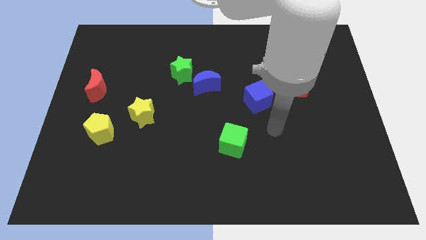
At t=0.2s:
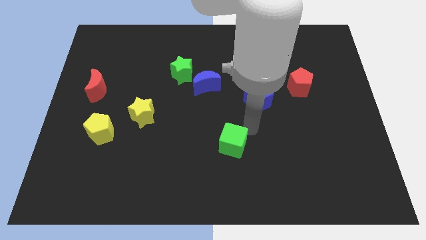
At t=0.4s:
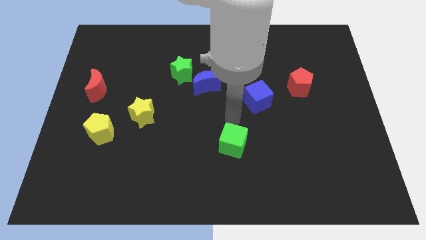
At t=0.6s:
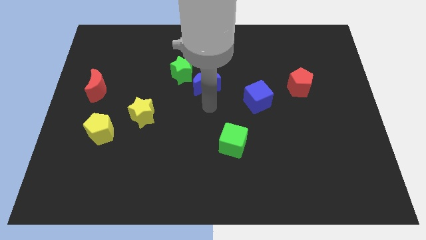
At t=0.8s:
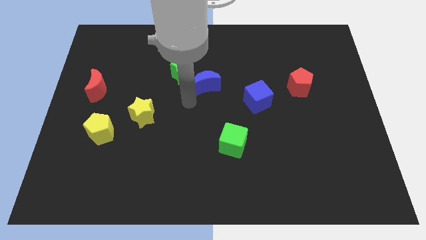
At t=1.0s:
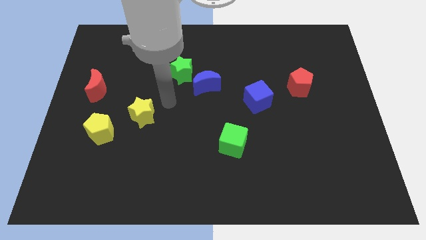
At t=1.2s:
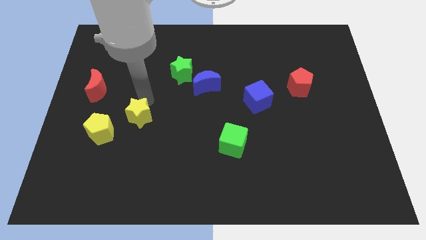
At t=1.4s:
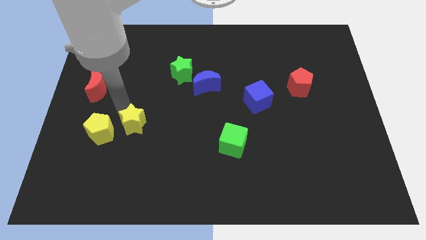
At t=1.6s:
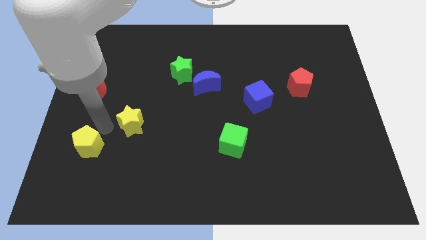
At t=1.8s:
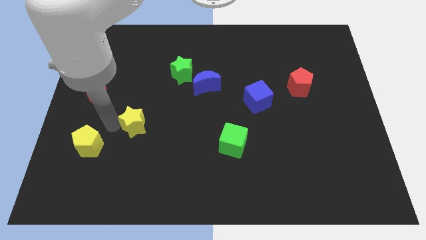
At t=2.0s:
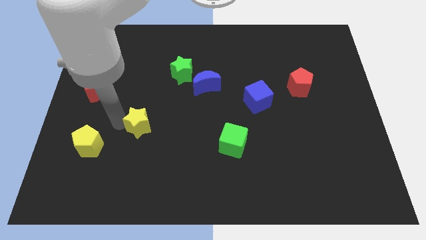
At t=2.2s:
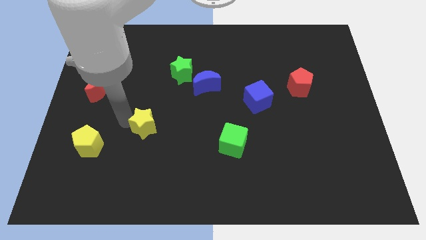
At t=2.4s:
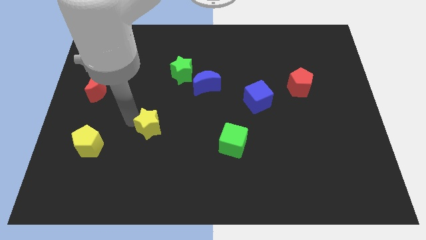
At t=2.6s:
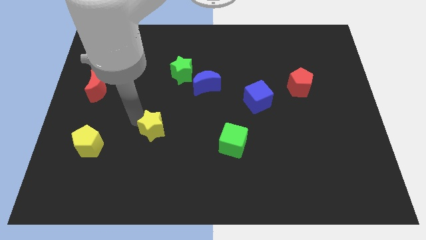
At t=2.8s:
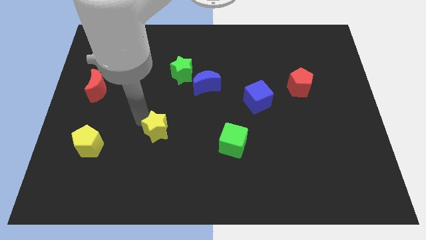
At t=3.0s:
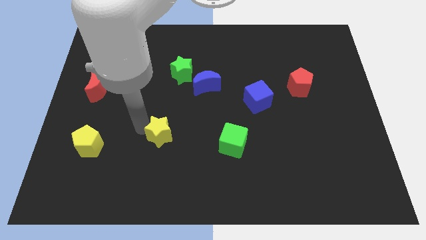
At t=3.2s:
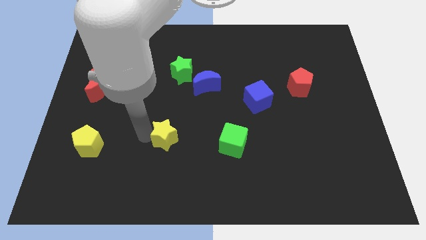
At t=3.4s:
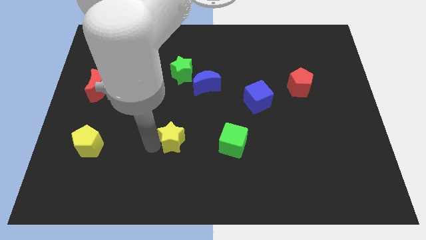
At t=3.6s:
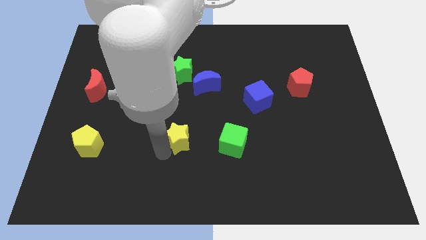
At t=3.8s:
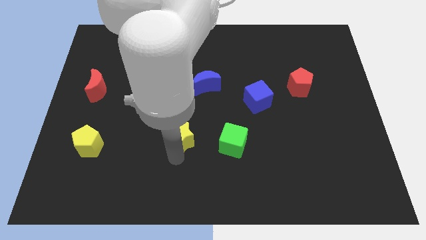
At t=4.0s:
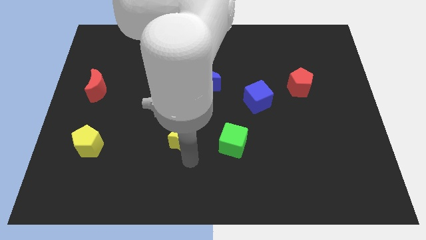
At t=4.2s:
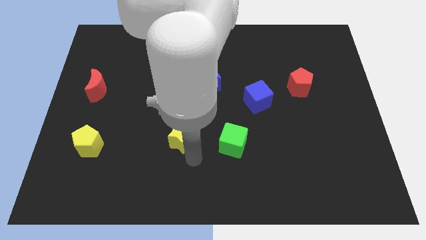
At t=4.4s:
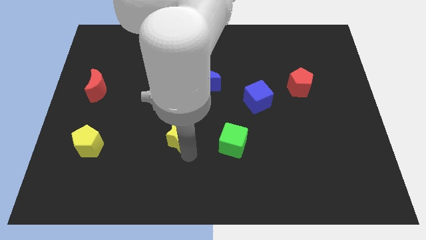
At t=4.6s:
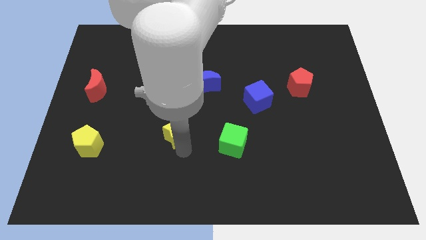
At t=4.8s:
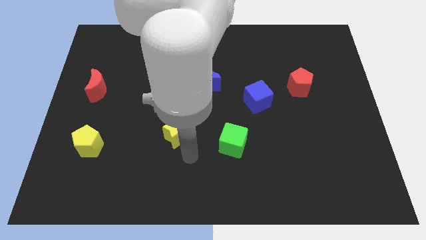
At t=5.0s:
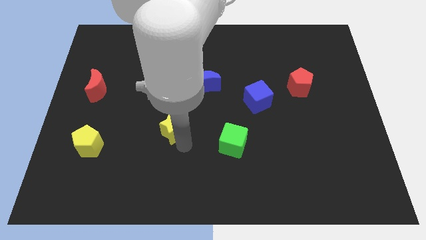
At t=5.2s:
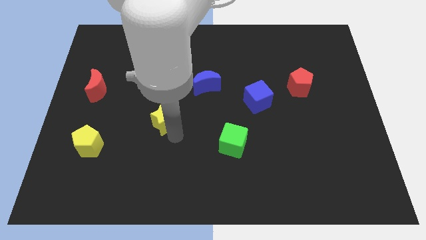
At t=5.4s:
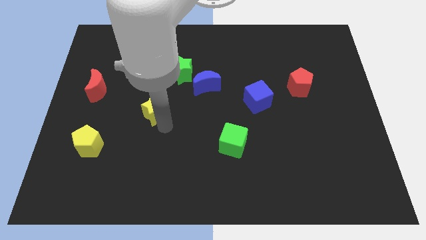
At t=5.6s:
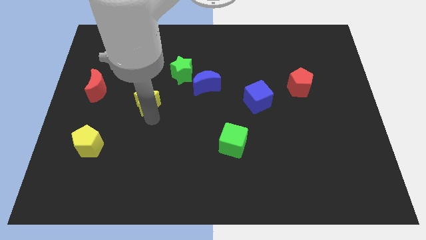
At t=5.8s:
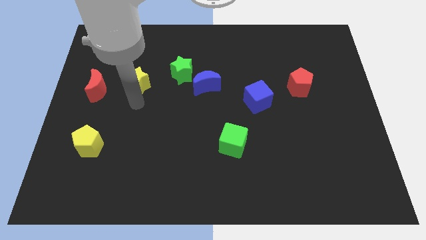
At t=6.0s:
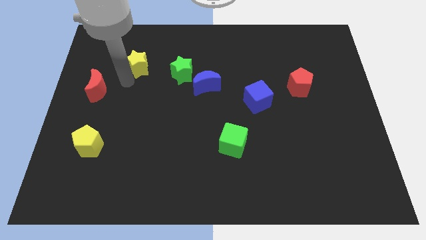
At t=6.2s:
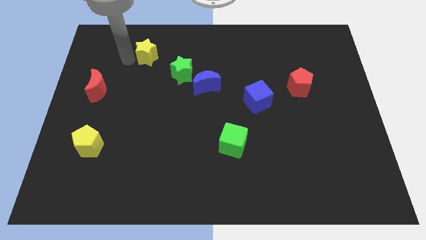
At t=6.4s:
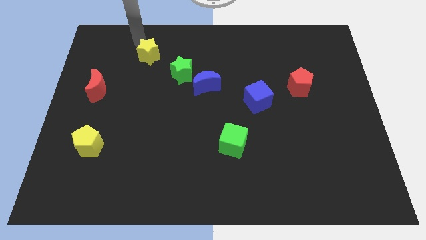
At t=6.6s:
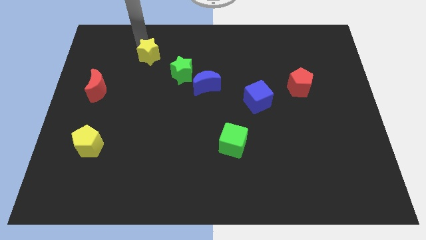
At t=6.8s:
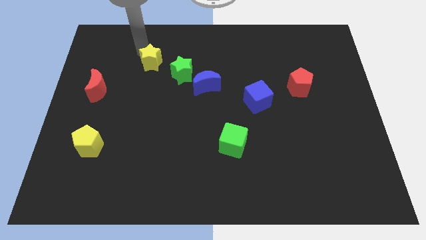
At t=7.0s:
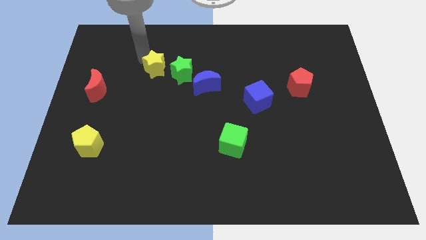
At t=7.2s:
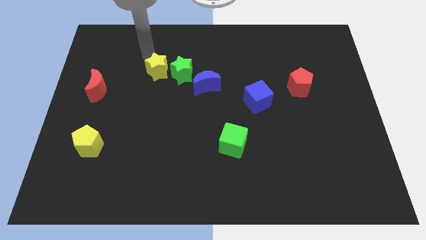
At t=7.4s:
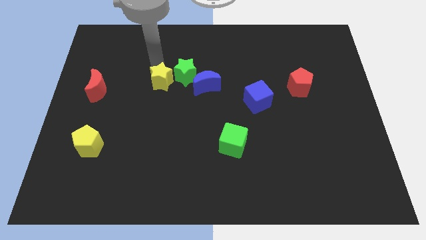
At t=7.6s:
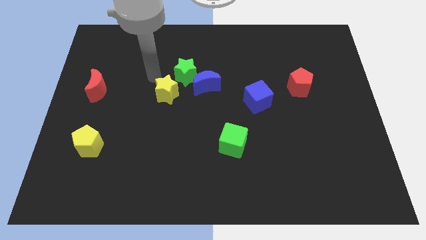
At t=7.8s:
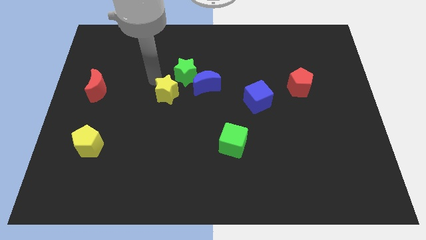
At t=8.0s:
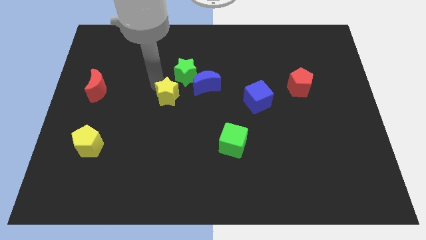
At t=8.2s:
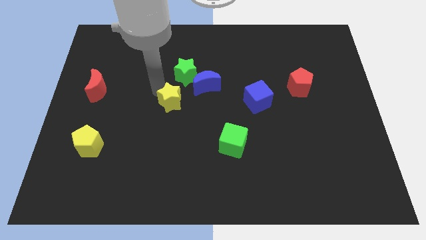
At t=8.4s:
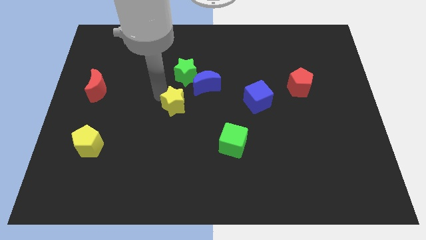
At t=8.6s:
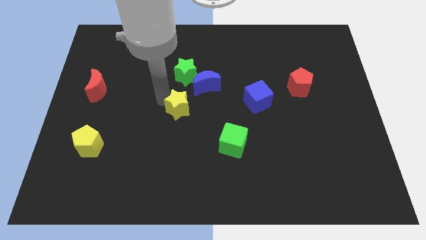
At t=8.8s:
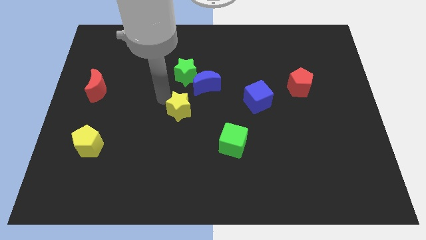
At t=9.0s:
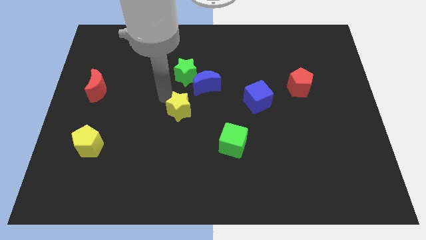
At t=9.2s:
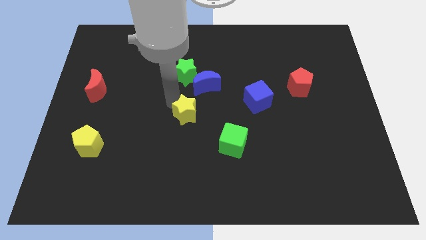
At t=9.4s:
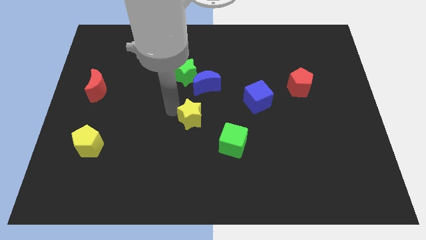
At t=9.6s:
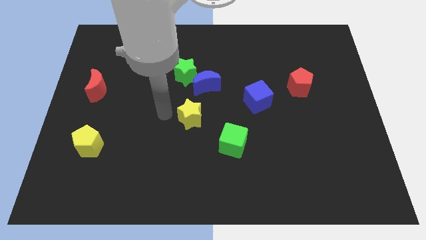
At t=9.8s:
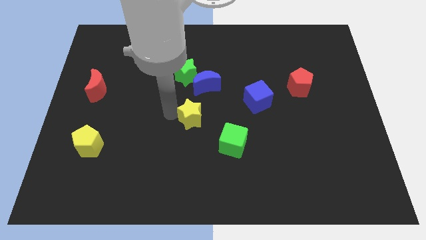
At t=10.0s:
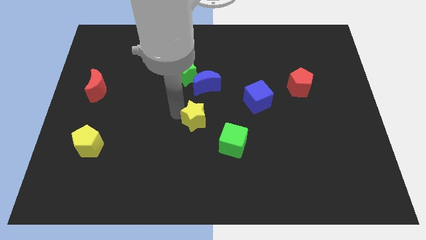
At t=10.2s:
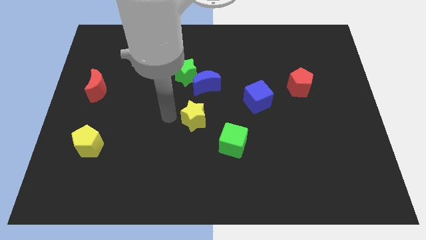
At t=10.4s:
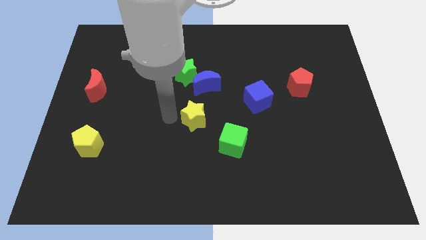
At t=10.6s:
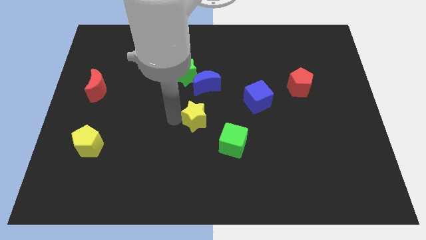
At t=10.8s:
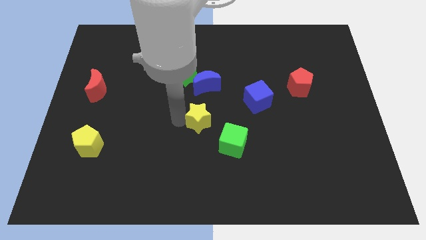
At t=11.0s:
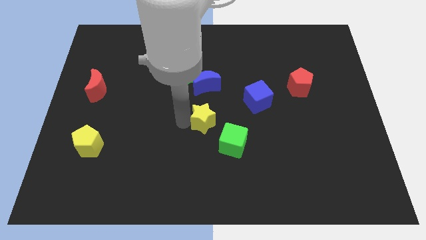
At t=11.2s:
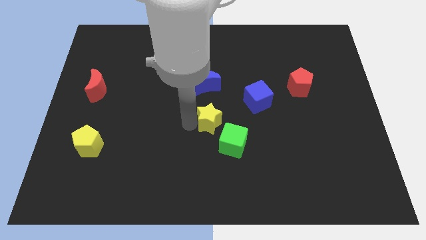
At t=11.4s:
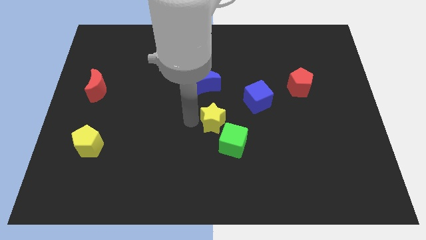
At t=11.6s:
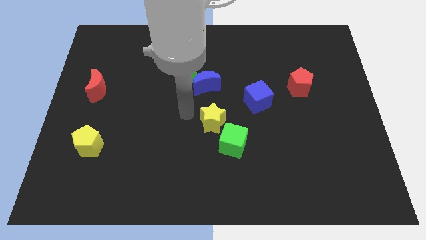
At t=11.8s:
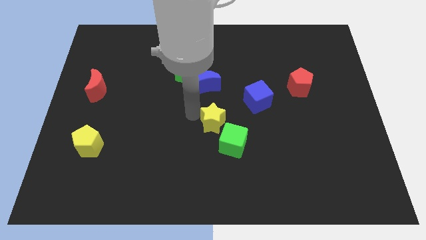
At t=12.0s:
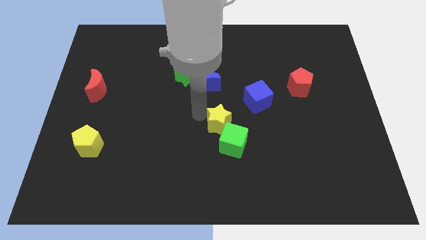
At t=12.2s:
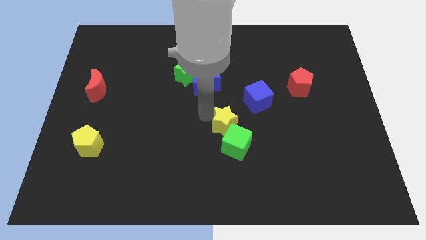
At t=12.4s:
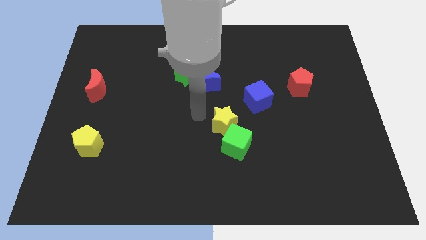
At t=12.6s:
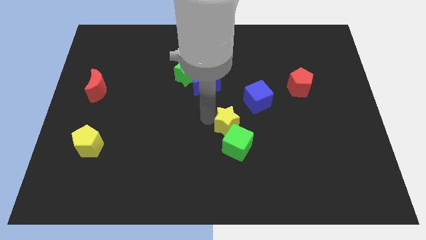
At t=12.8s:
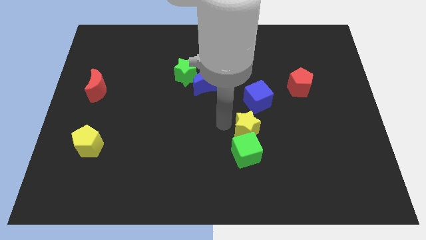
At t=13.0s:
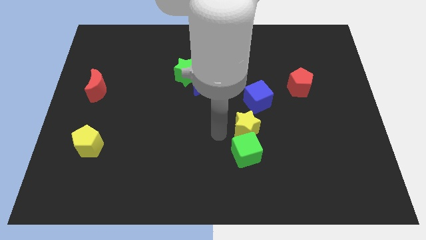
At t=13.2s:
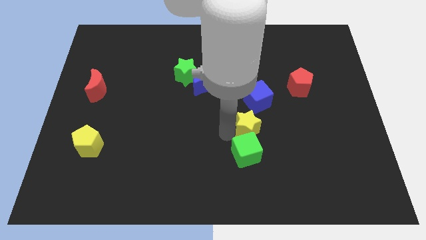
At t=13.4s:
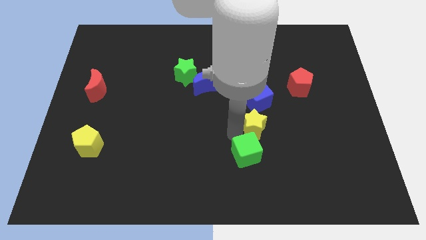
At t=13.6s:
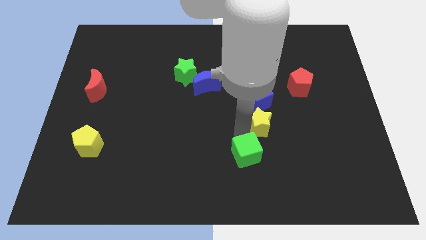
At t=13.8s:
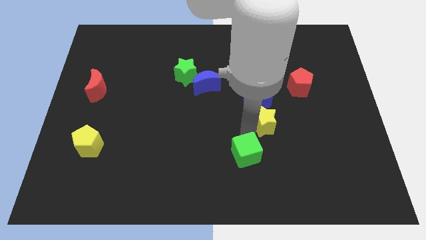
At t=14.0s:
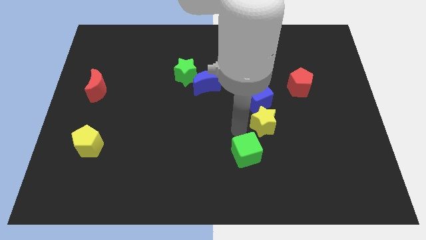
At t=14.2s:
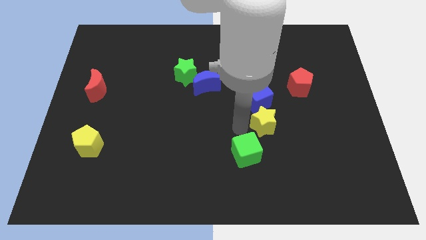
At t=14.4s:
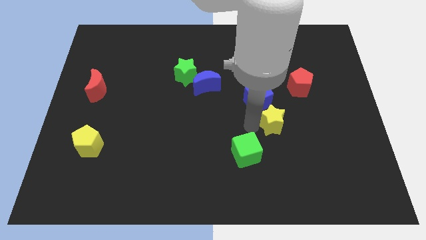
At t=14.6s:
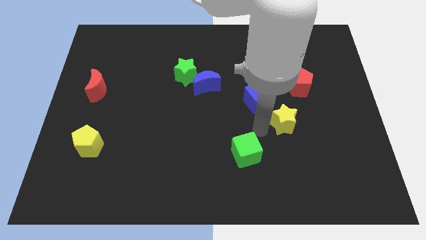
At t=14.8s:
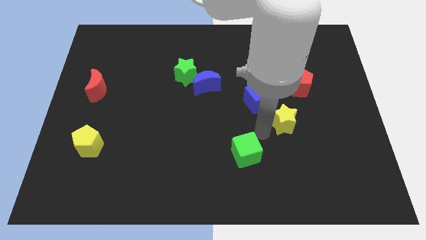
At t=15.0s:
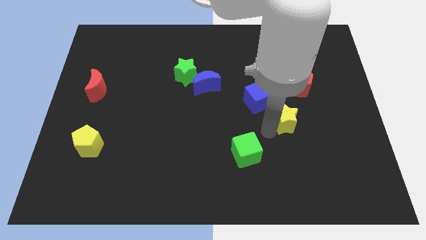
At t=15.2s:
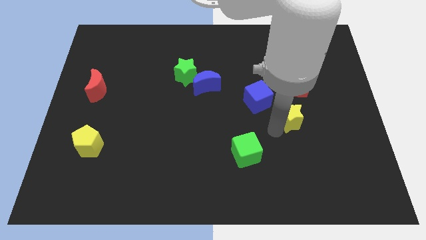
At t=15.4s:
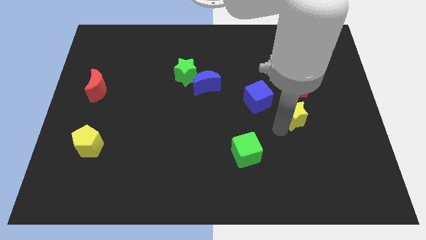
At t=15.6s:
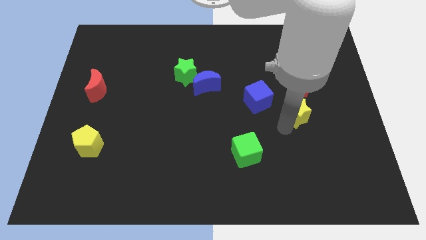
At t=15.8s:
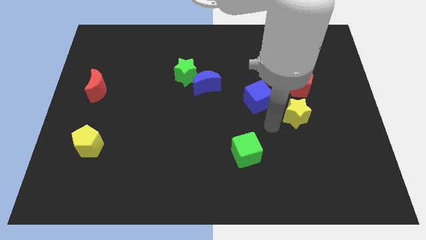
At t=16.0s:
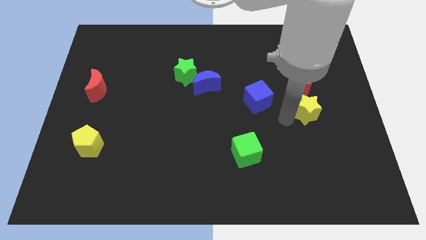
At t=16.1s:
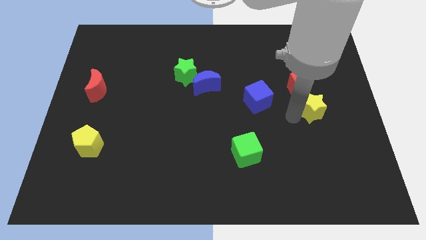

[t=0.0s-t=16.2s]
push the yellow star to the bottom right side of the red pentagon
